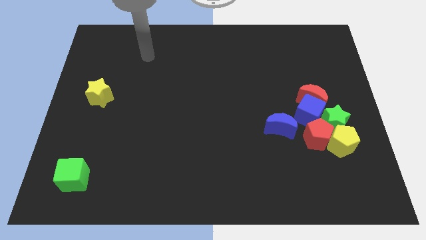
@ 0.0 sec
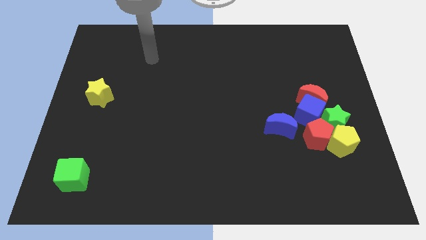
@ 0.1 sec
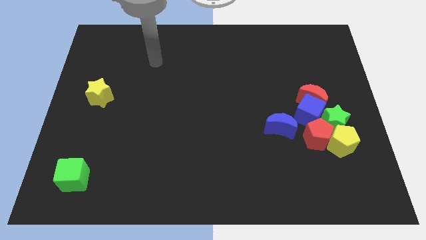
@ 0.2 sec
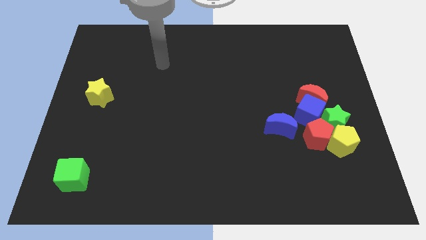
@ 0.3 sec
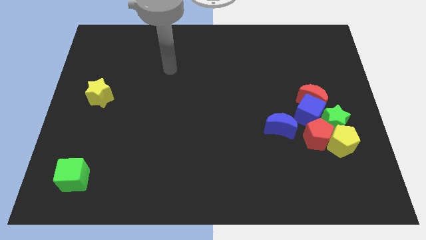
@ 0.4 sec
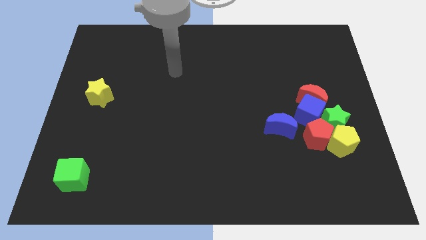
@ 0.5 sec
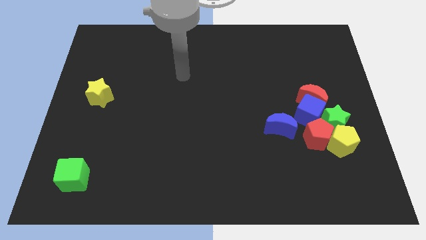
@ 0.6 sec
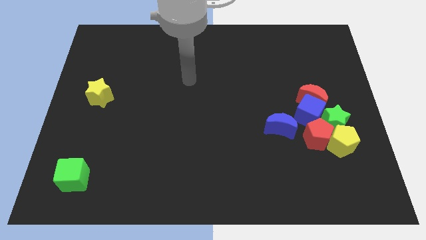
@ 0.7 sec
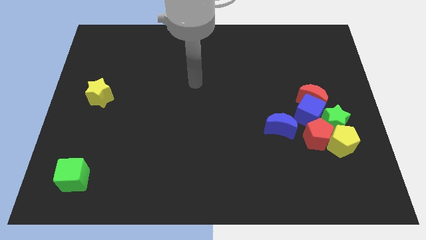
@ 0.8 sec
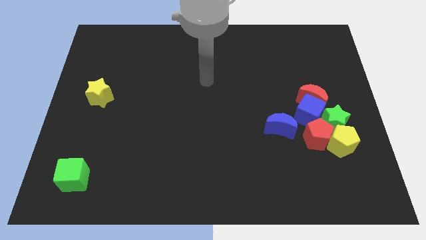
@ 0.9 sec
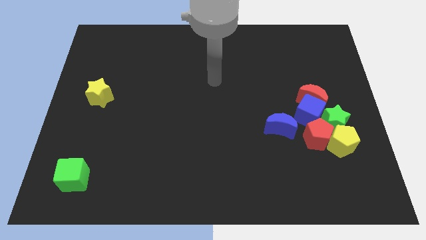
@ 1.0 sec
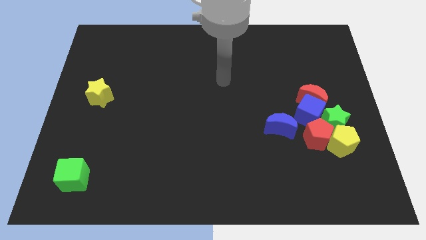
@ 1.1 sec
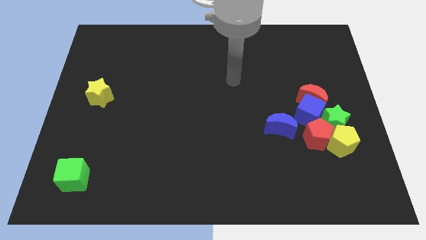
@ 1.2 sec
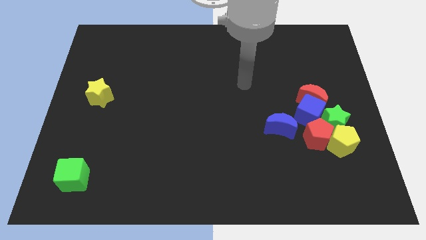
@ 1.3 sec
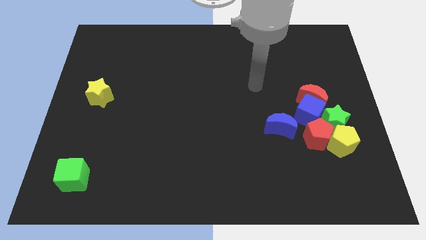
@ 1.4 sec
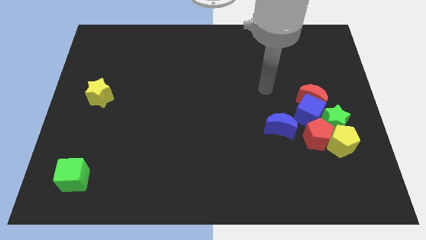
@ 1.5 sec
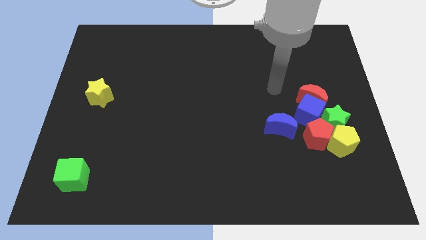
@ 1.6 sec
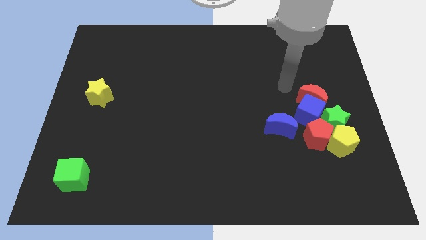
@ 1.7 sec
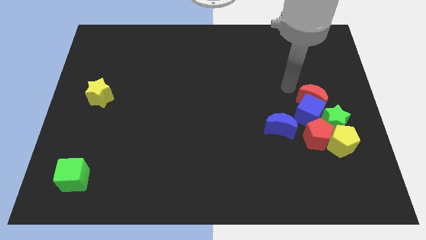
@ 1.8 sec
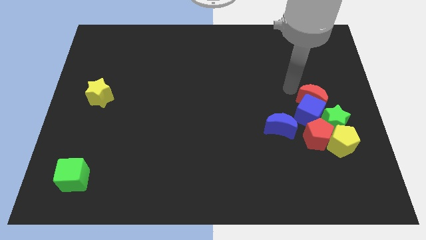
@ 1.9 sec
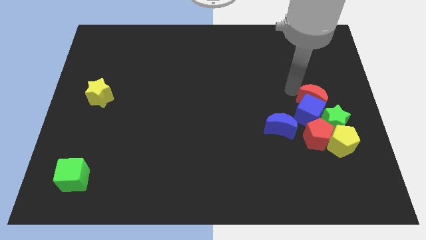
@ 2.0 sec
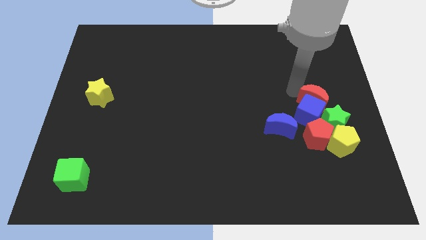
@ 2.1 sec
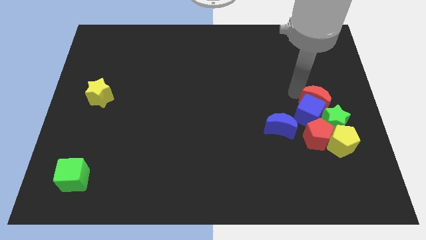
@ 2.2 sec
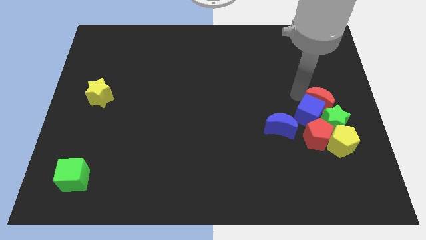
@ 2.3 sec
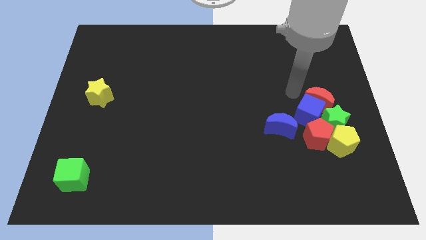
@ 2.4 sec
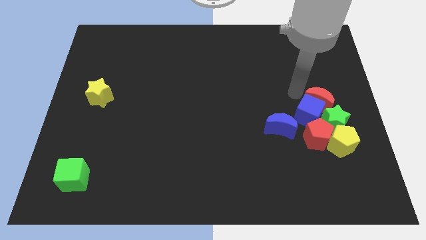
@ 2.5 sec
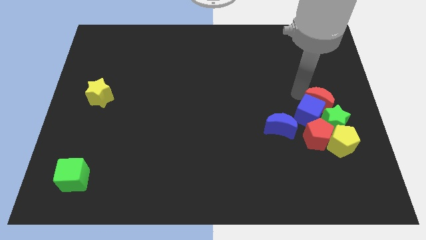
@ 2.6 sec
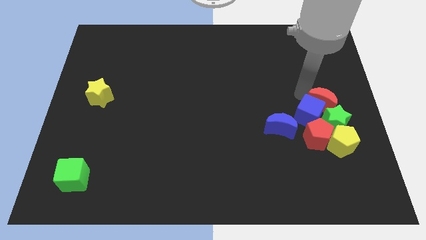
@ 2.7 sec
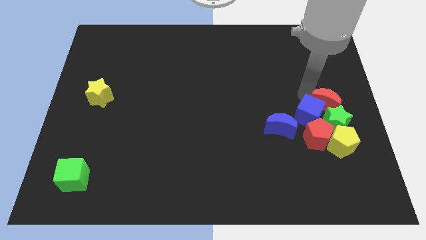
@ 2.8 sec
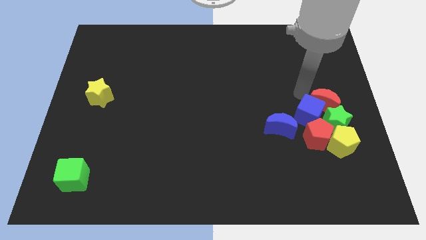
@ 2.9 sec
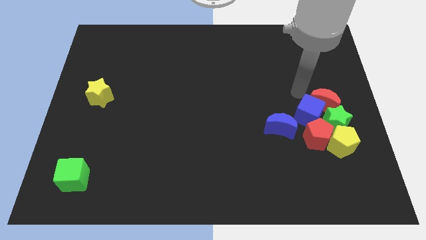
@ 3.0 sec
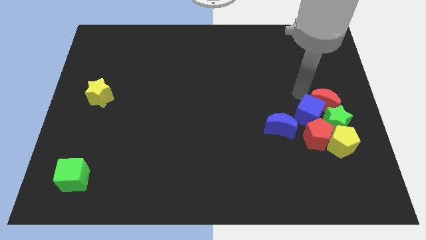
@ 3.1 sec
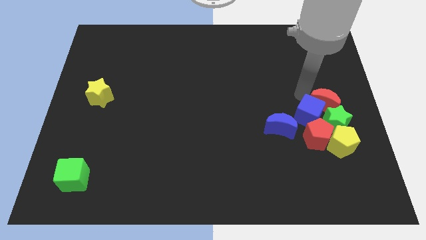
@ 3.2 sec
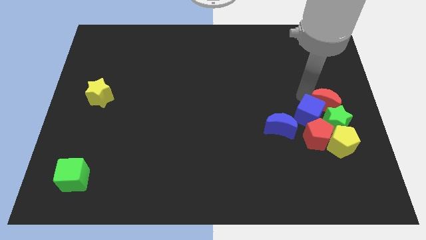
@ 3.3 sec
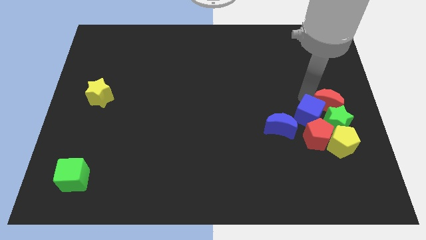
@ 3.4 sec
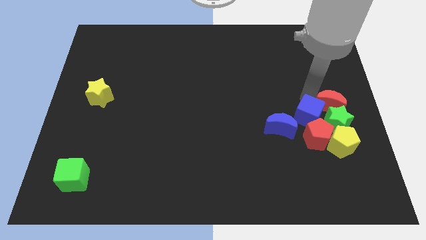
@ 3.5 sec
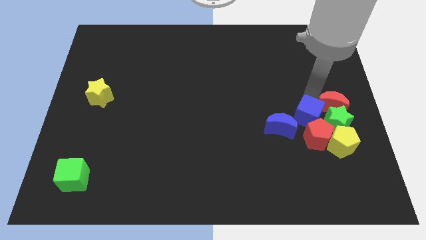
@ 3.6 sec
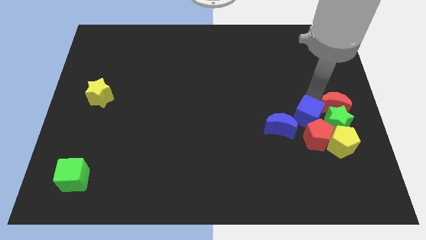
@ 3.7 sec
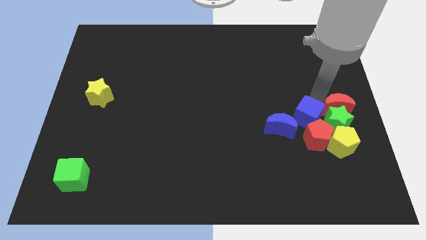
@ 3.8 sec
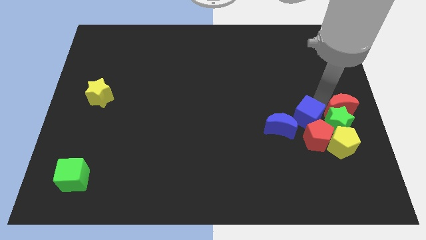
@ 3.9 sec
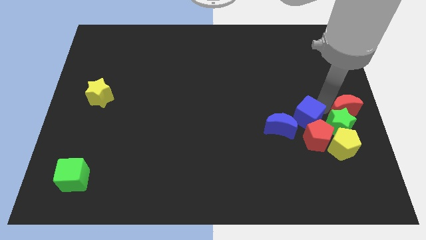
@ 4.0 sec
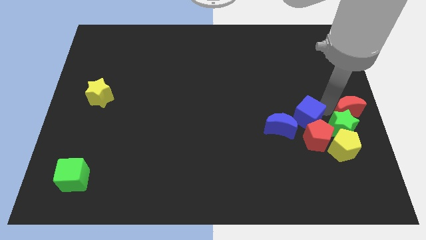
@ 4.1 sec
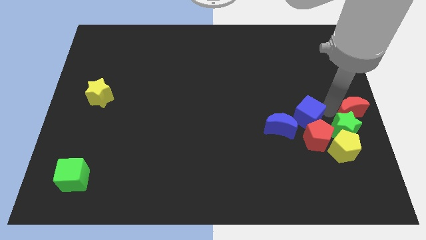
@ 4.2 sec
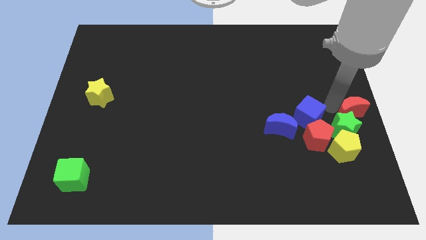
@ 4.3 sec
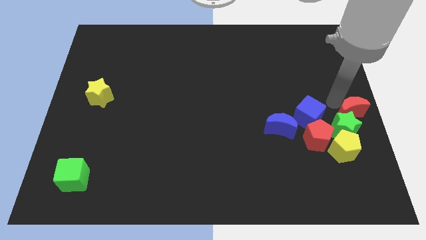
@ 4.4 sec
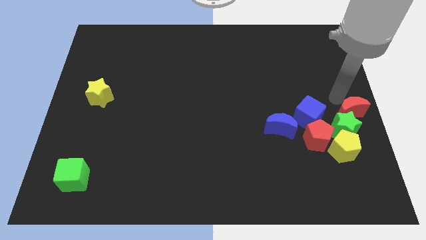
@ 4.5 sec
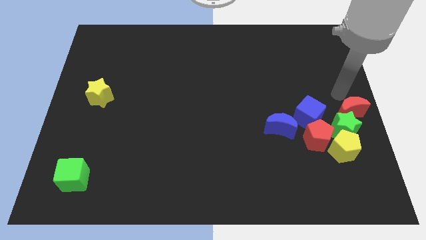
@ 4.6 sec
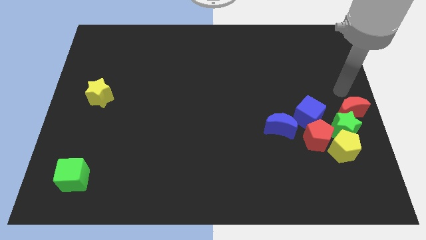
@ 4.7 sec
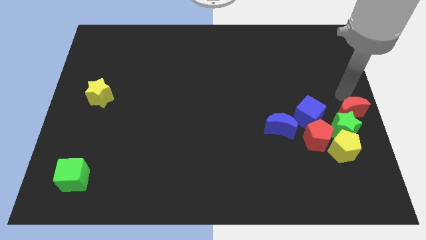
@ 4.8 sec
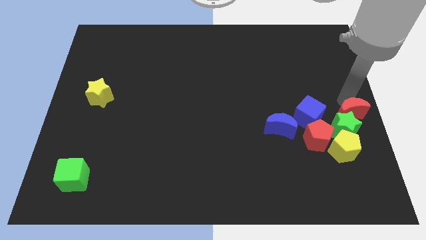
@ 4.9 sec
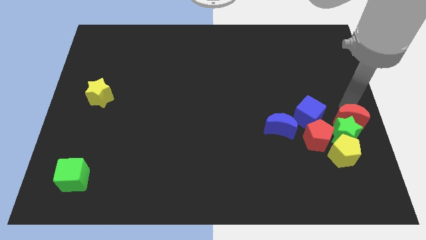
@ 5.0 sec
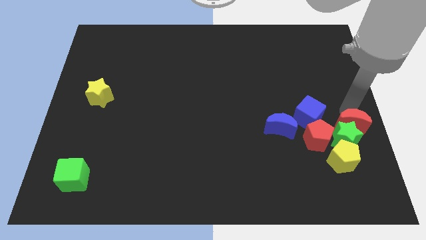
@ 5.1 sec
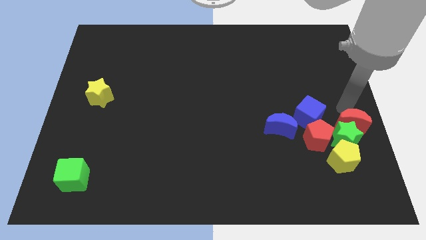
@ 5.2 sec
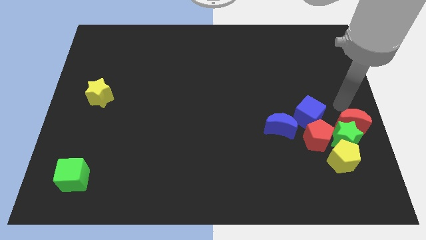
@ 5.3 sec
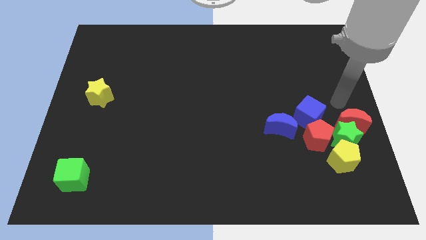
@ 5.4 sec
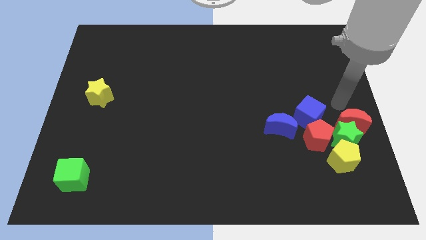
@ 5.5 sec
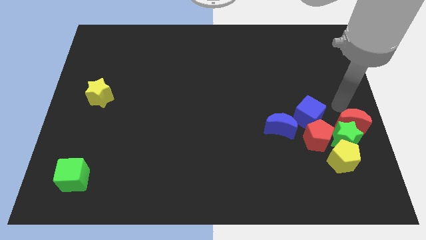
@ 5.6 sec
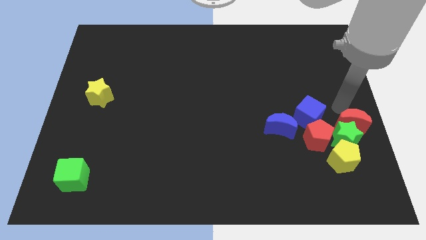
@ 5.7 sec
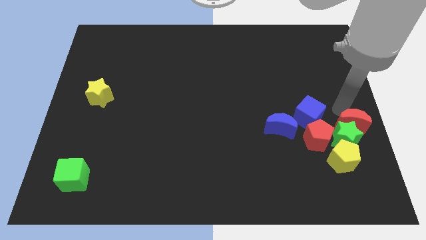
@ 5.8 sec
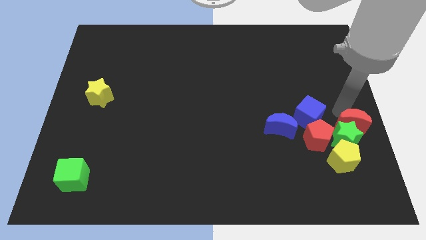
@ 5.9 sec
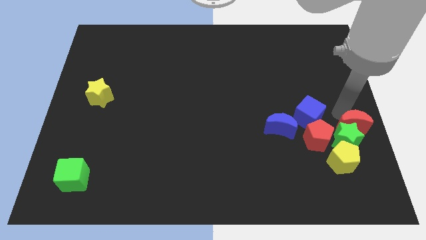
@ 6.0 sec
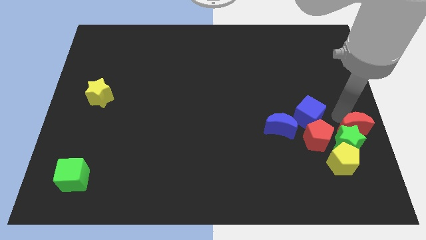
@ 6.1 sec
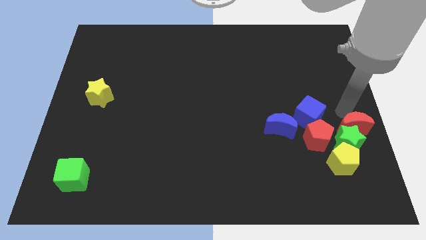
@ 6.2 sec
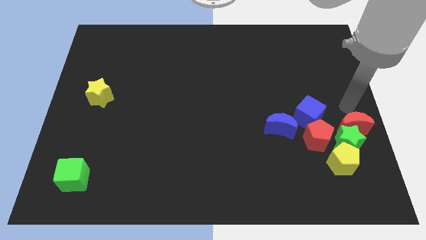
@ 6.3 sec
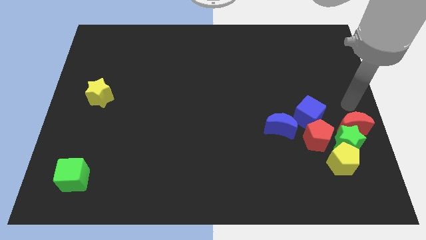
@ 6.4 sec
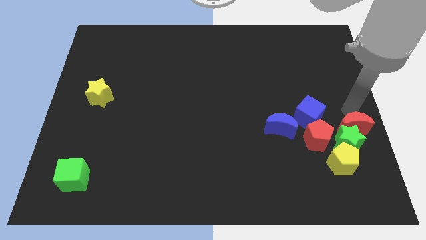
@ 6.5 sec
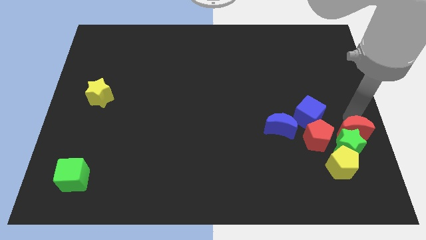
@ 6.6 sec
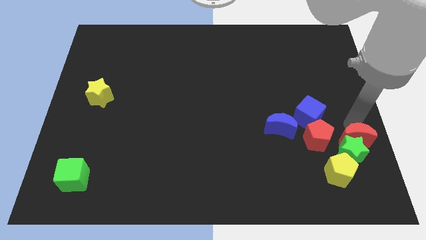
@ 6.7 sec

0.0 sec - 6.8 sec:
push the red moon a little bit down

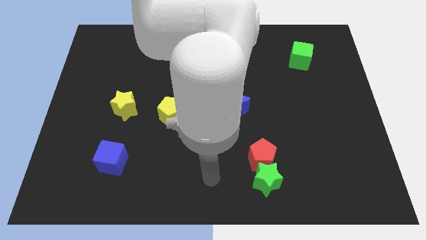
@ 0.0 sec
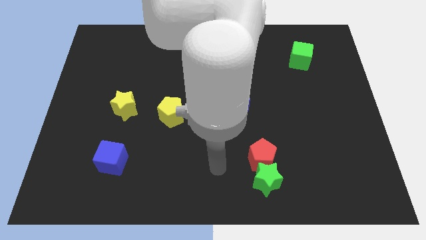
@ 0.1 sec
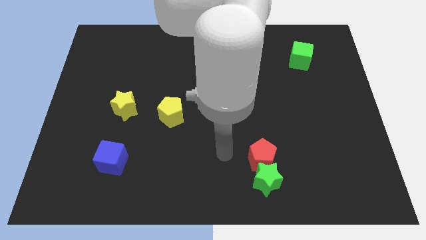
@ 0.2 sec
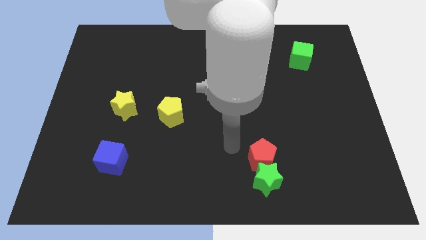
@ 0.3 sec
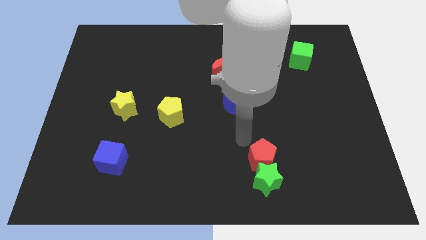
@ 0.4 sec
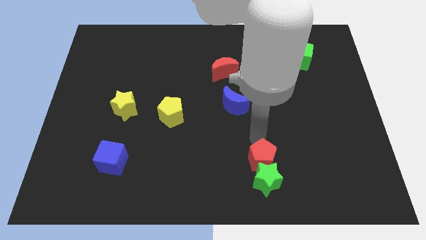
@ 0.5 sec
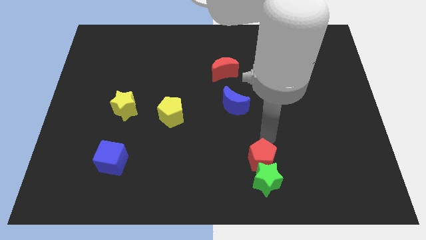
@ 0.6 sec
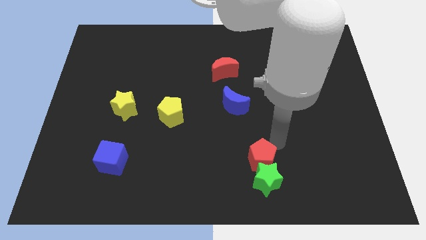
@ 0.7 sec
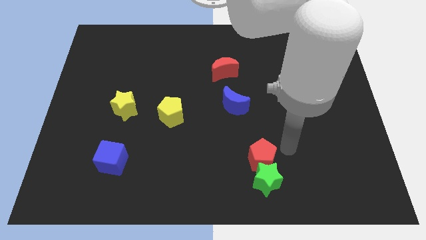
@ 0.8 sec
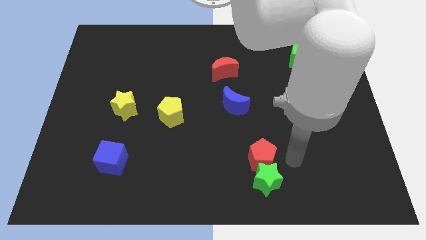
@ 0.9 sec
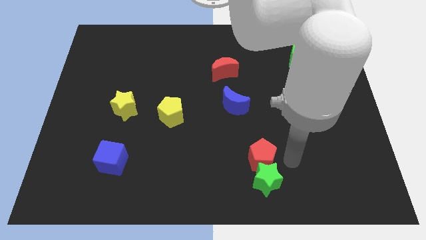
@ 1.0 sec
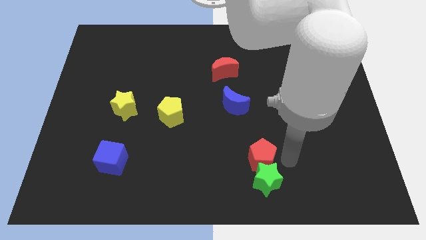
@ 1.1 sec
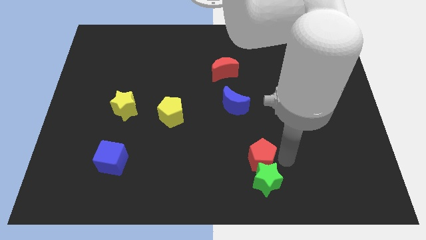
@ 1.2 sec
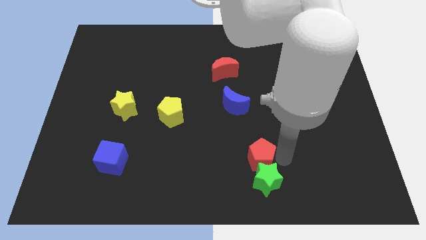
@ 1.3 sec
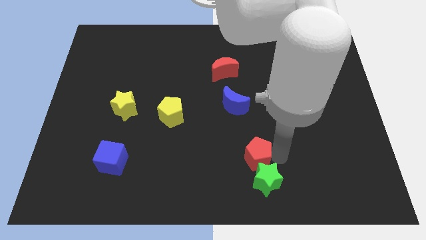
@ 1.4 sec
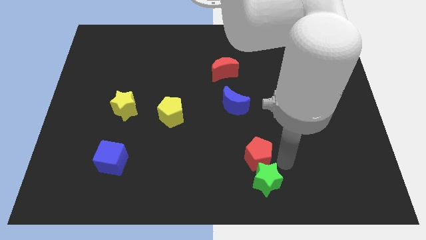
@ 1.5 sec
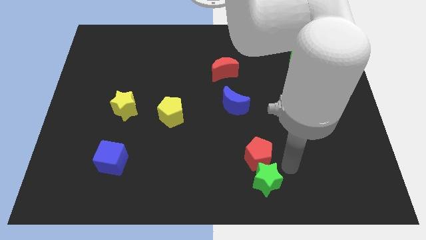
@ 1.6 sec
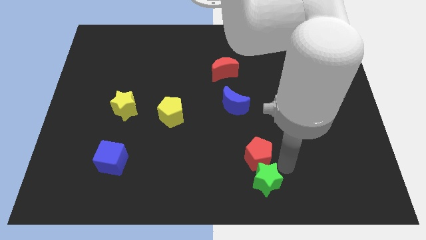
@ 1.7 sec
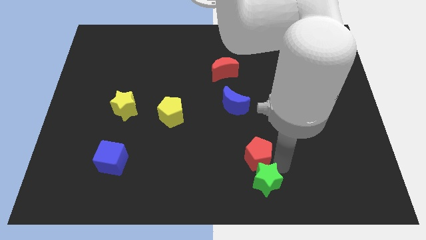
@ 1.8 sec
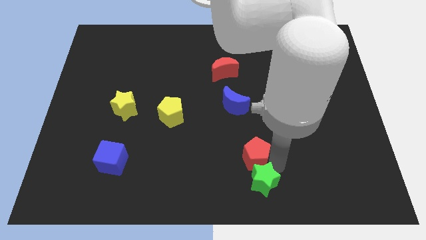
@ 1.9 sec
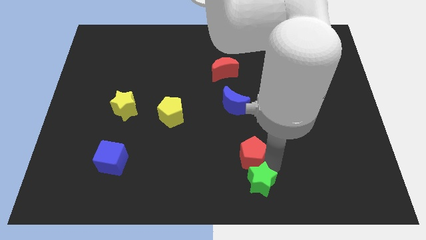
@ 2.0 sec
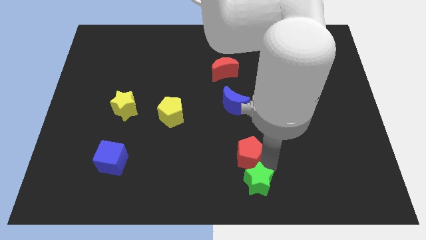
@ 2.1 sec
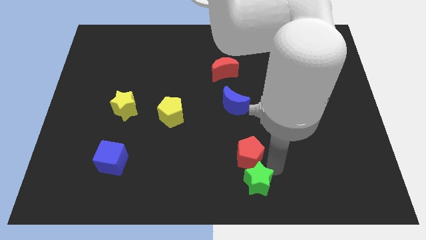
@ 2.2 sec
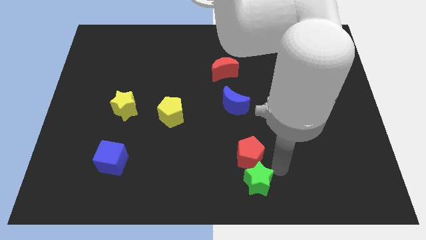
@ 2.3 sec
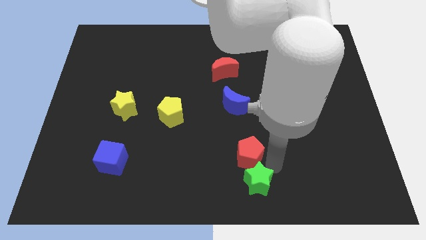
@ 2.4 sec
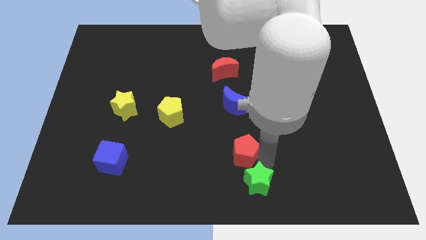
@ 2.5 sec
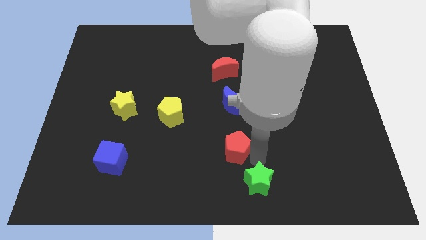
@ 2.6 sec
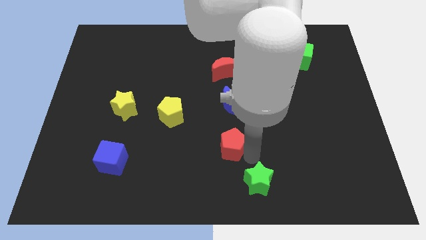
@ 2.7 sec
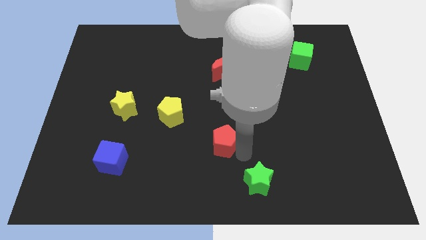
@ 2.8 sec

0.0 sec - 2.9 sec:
move the red pentagon a little bit upwards and then left
